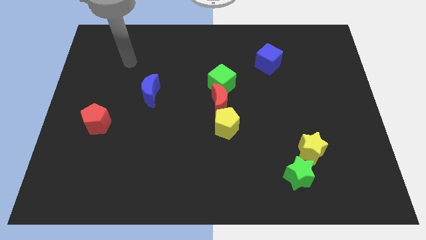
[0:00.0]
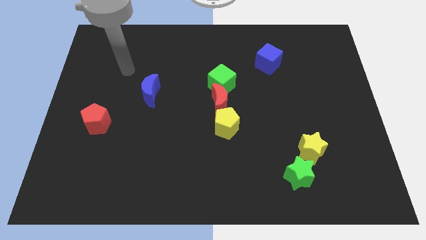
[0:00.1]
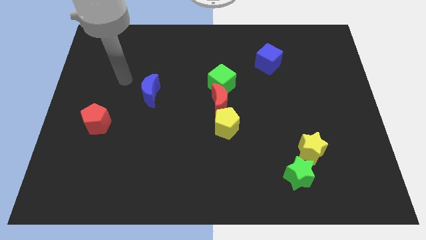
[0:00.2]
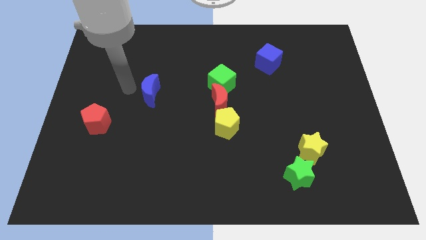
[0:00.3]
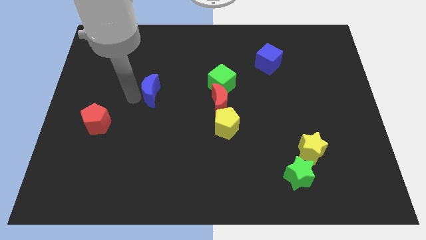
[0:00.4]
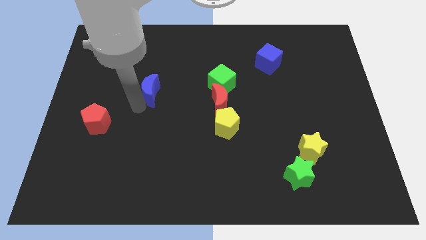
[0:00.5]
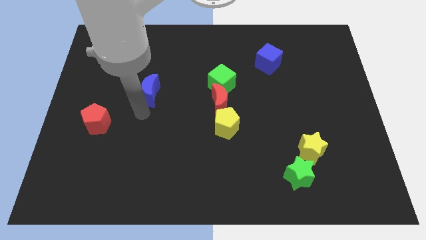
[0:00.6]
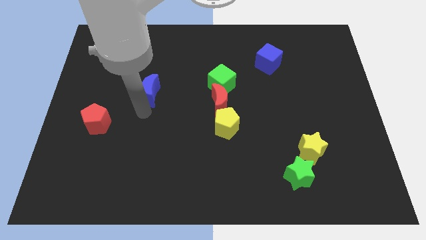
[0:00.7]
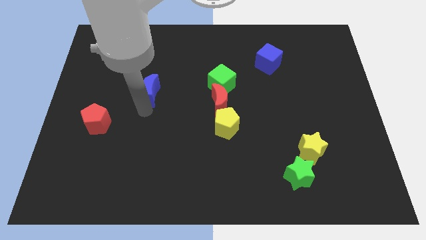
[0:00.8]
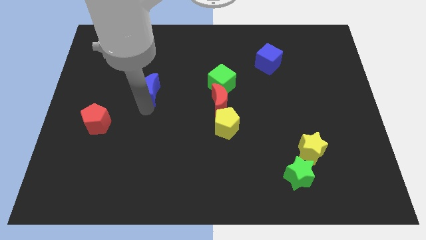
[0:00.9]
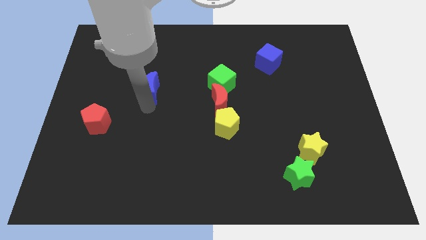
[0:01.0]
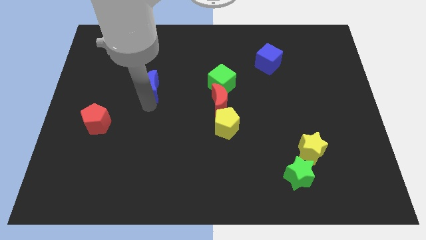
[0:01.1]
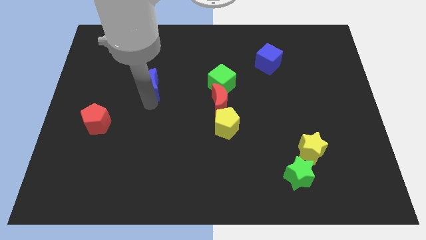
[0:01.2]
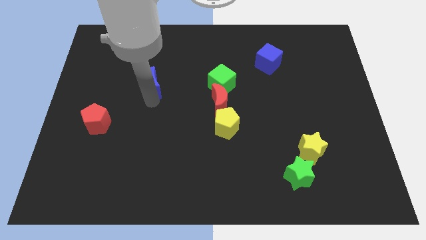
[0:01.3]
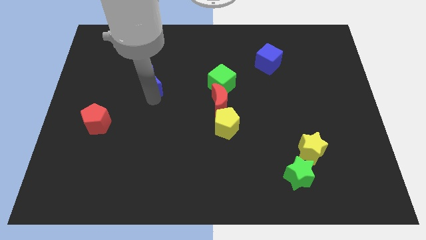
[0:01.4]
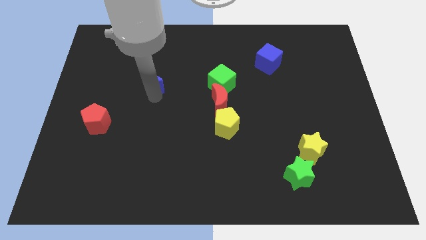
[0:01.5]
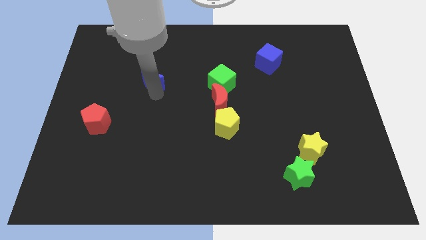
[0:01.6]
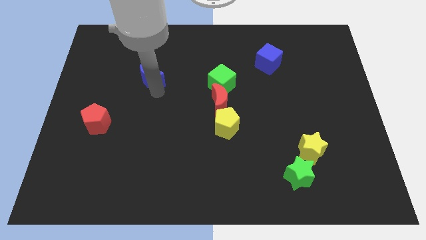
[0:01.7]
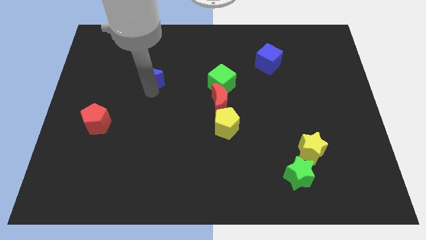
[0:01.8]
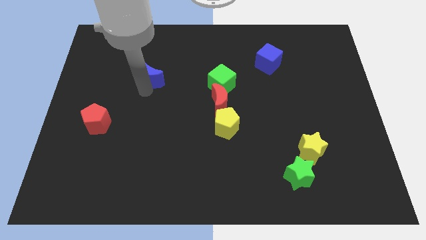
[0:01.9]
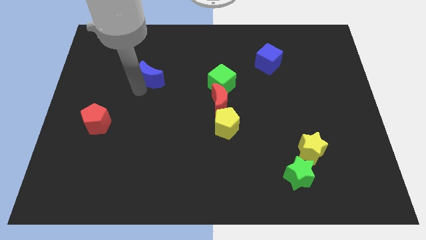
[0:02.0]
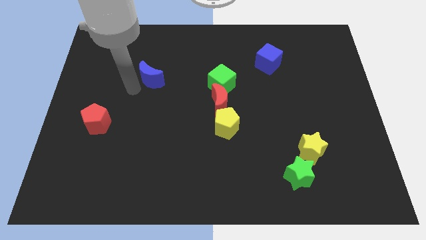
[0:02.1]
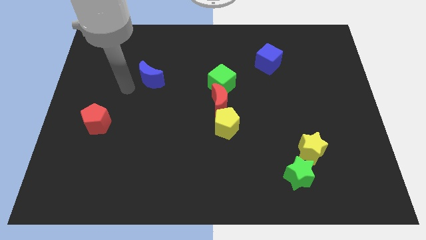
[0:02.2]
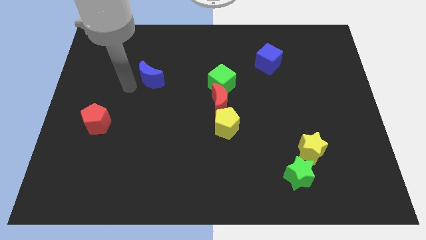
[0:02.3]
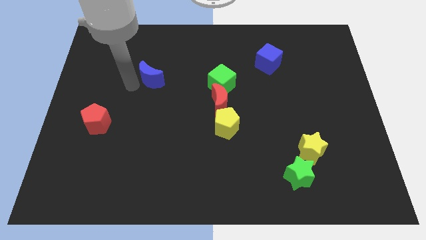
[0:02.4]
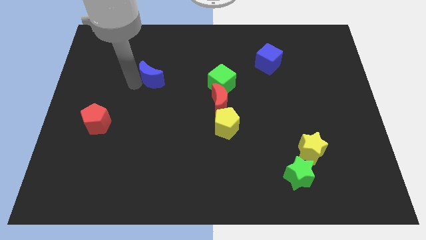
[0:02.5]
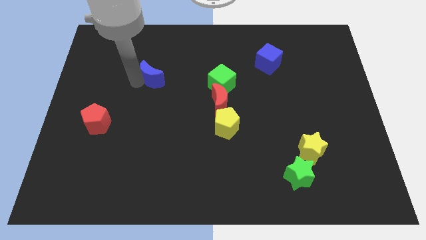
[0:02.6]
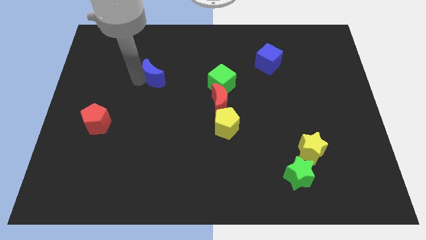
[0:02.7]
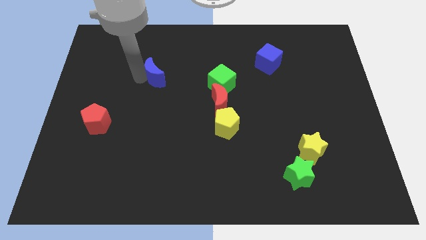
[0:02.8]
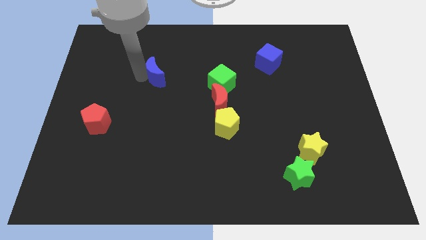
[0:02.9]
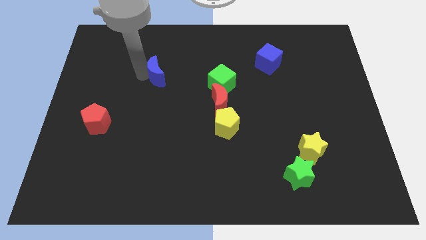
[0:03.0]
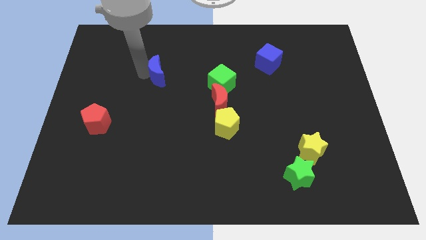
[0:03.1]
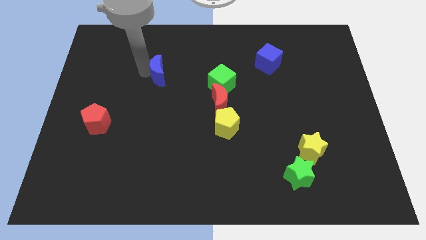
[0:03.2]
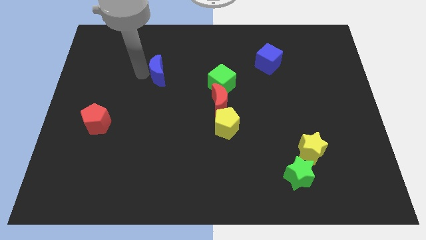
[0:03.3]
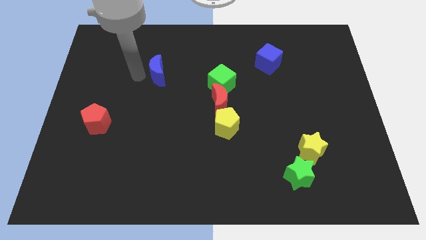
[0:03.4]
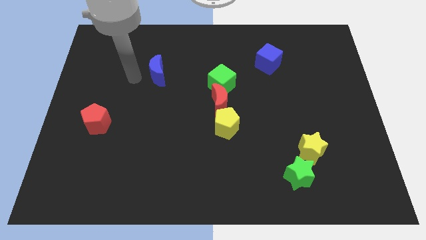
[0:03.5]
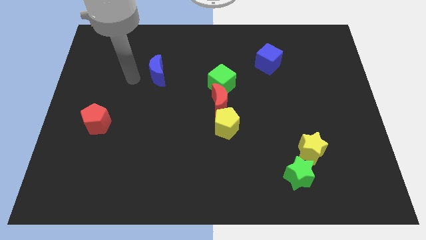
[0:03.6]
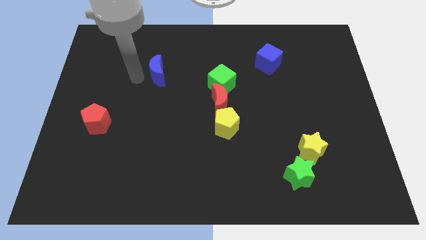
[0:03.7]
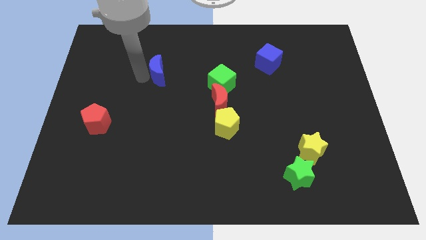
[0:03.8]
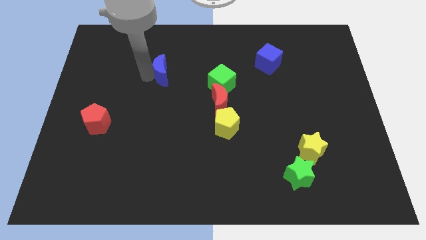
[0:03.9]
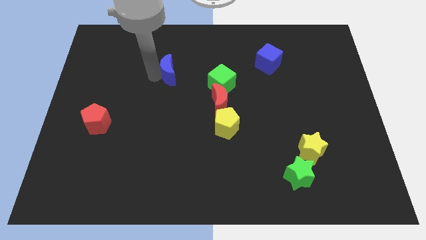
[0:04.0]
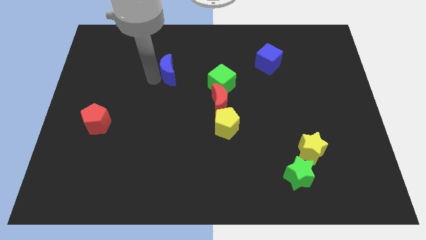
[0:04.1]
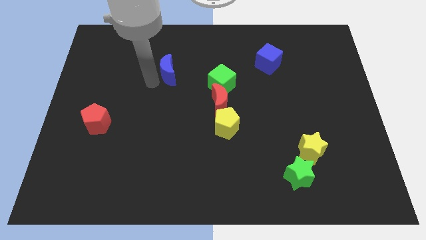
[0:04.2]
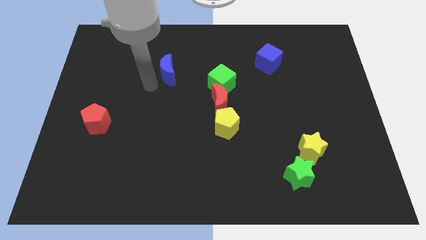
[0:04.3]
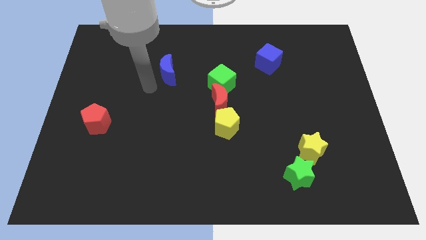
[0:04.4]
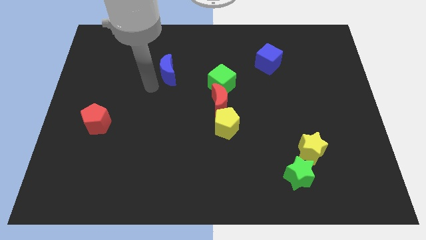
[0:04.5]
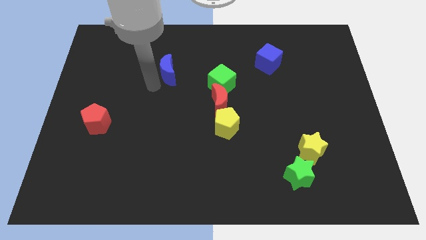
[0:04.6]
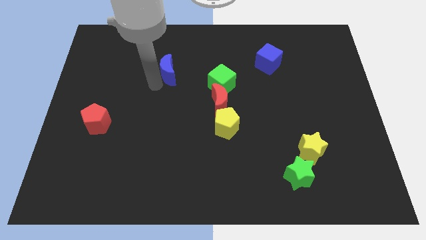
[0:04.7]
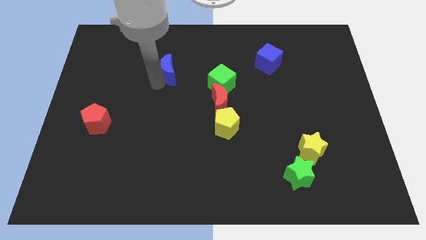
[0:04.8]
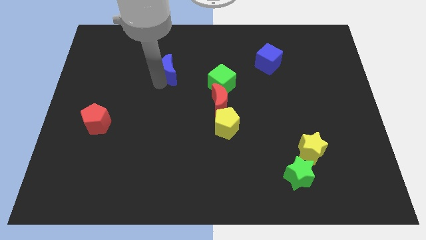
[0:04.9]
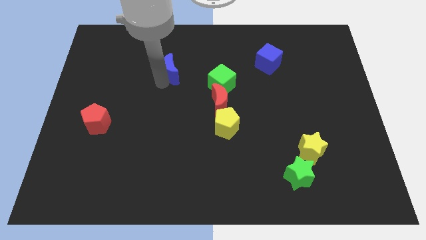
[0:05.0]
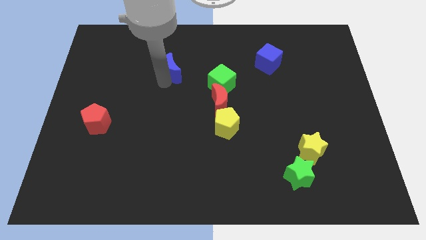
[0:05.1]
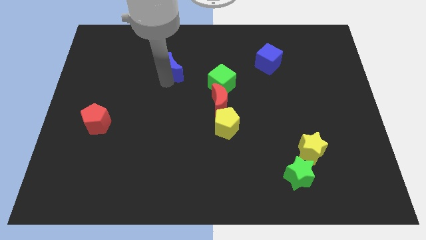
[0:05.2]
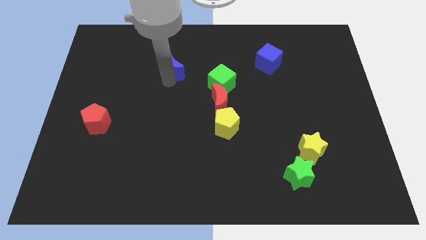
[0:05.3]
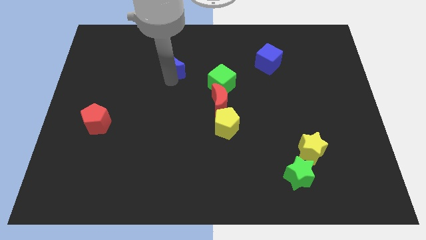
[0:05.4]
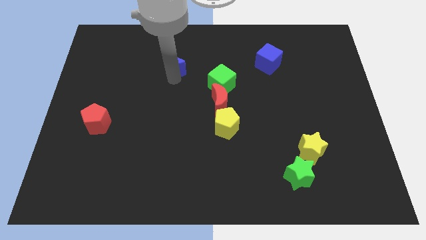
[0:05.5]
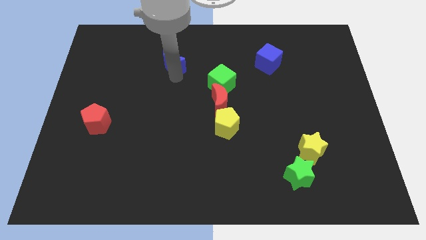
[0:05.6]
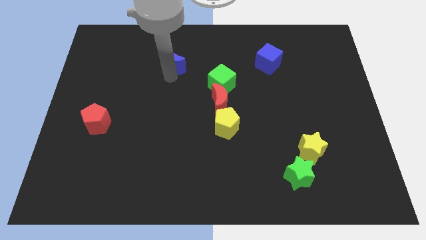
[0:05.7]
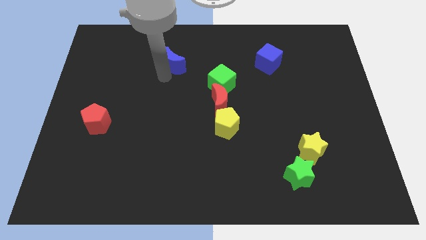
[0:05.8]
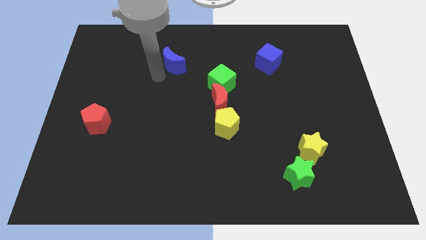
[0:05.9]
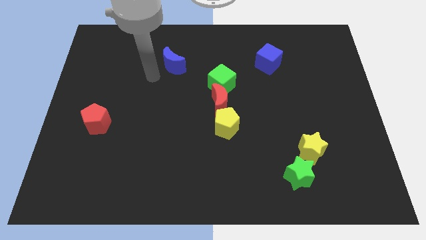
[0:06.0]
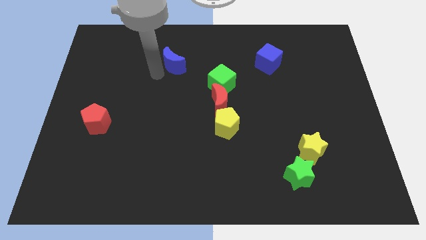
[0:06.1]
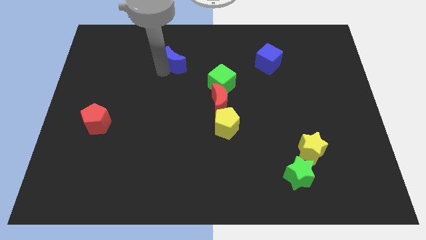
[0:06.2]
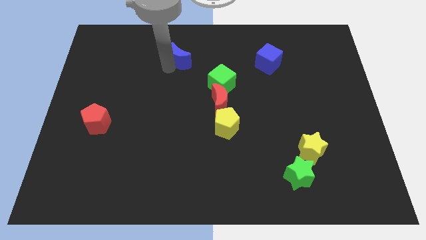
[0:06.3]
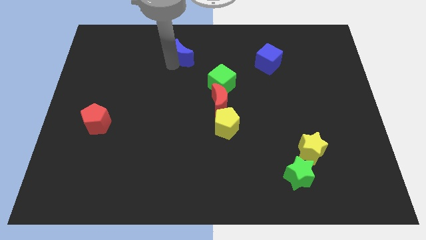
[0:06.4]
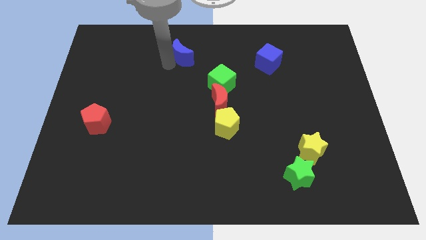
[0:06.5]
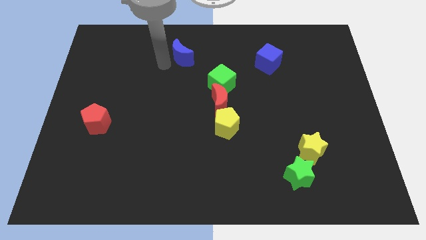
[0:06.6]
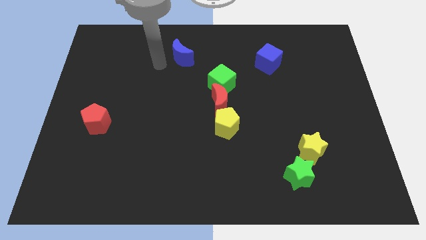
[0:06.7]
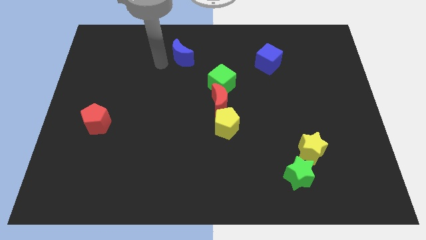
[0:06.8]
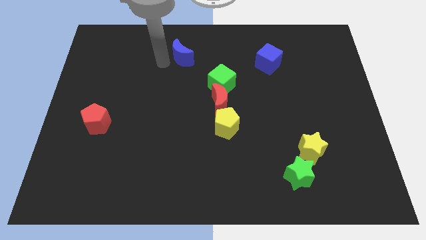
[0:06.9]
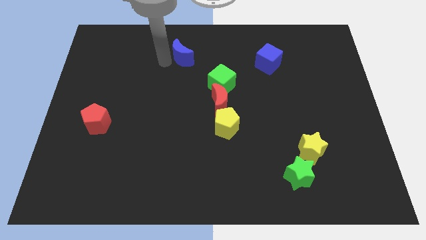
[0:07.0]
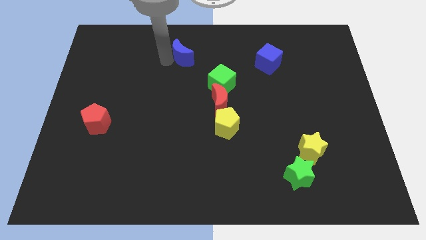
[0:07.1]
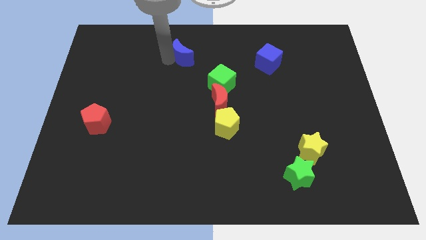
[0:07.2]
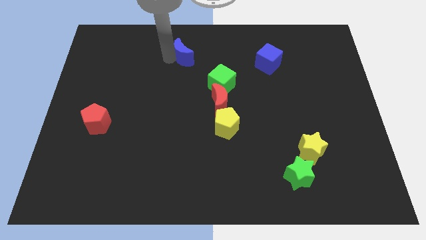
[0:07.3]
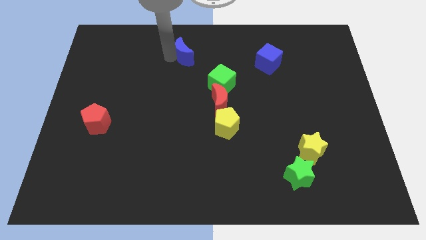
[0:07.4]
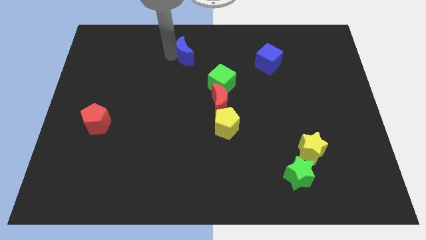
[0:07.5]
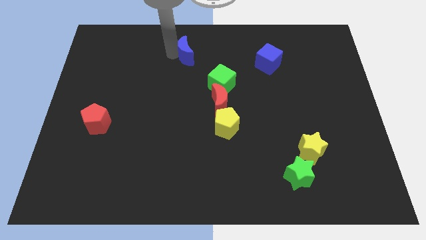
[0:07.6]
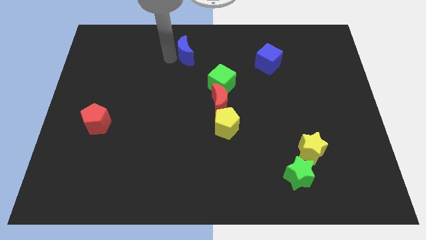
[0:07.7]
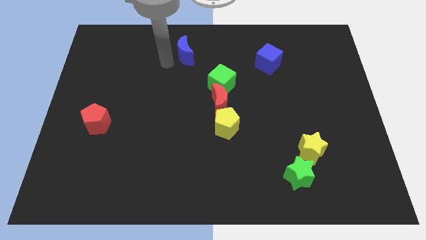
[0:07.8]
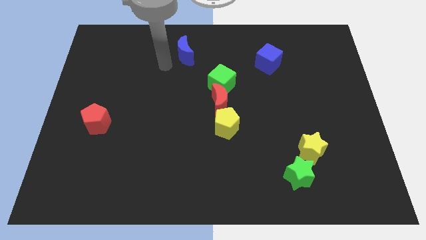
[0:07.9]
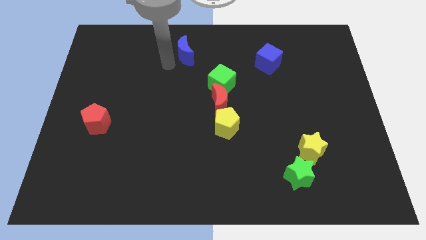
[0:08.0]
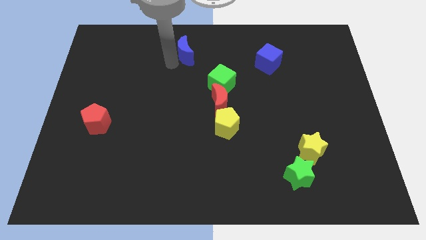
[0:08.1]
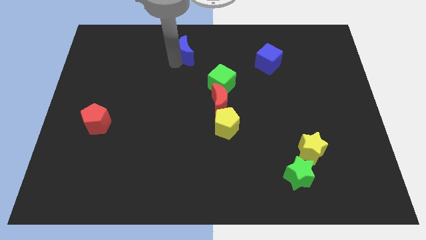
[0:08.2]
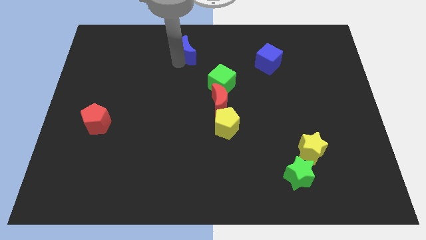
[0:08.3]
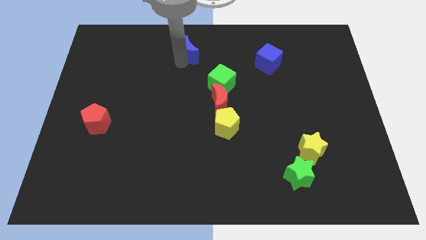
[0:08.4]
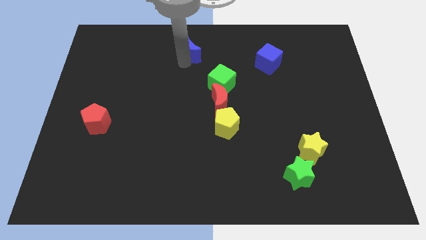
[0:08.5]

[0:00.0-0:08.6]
slide the blue moon to the top
